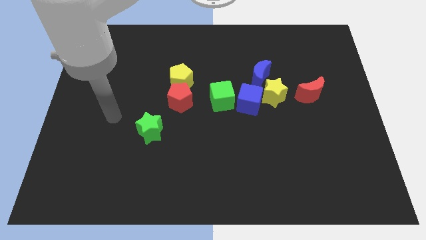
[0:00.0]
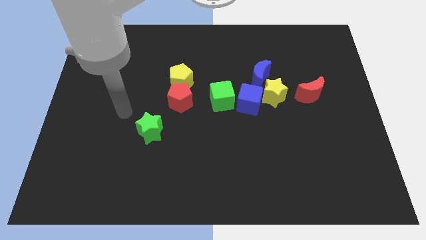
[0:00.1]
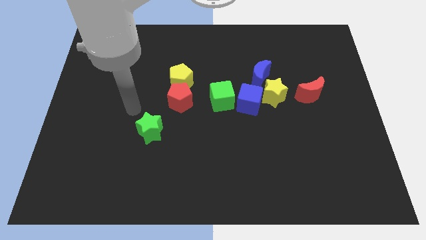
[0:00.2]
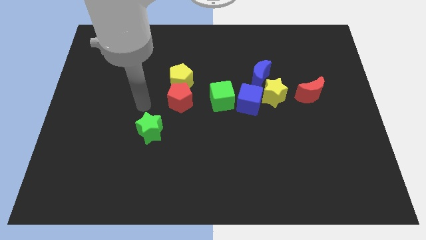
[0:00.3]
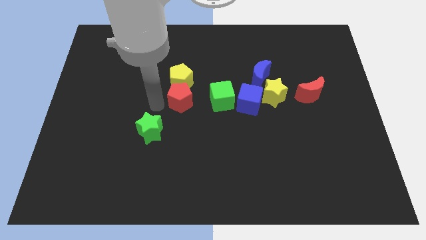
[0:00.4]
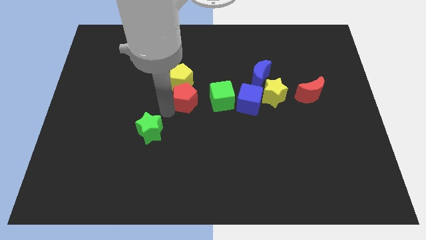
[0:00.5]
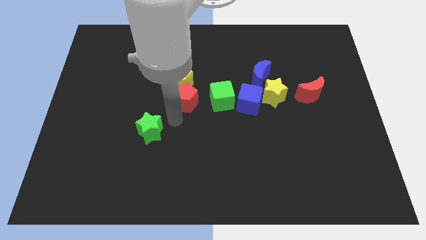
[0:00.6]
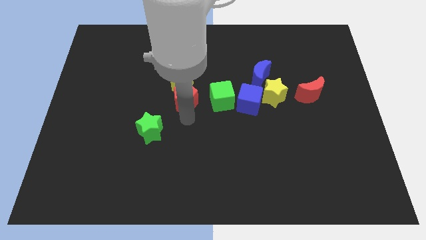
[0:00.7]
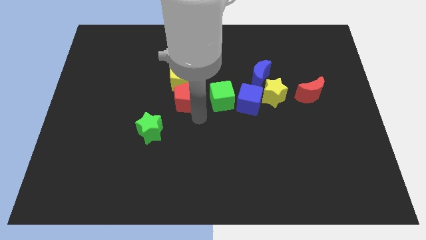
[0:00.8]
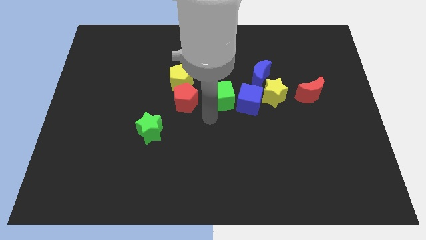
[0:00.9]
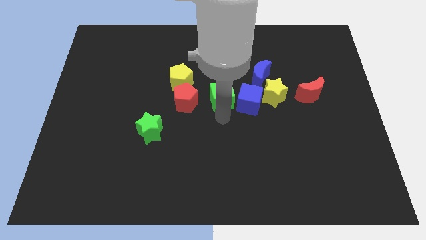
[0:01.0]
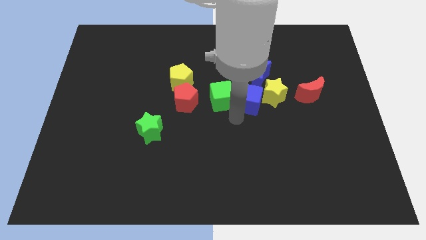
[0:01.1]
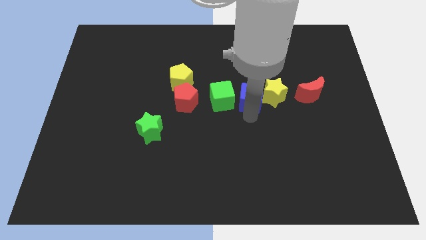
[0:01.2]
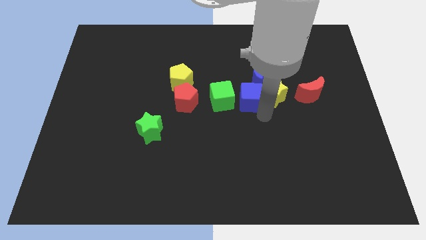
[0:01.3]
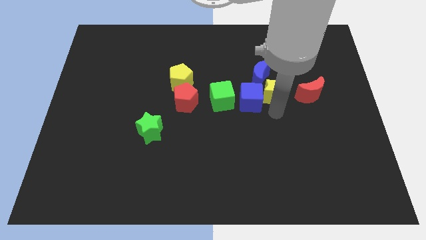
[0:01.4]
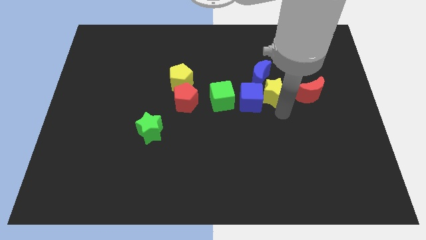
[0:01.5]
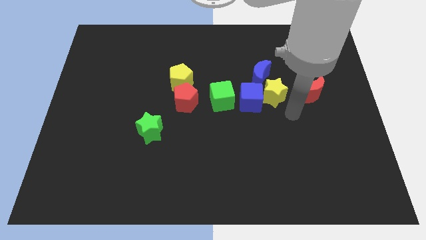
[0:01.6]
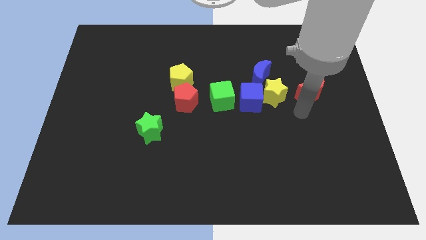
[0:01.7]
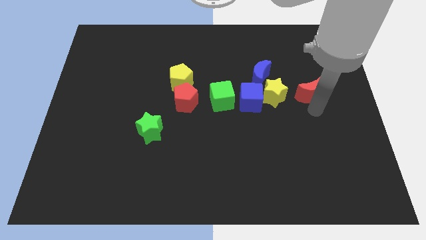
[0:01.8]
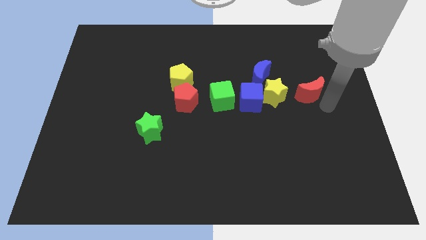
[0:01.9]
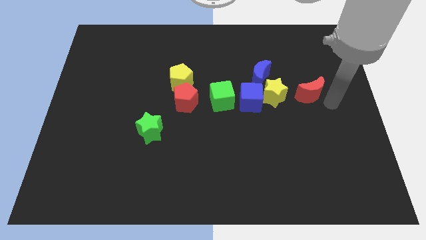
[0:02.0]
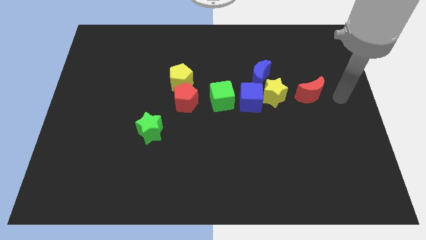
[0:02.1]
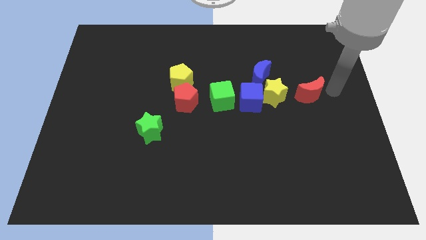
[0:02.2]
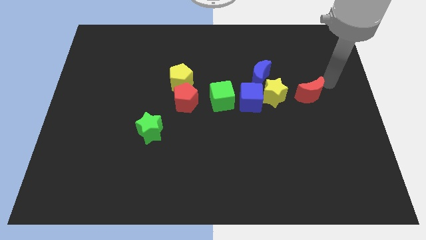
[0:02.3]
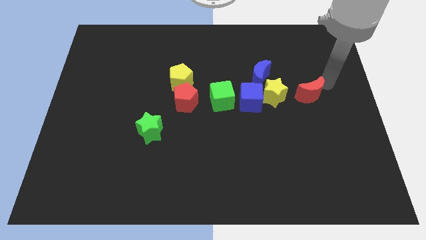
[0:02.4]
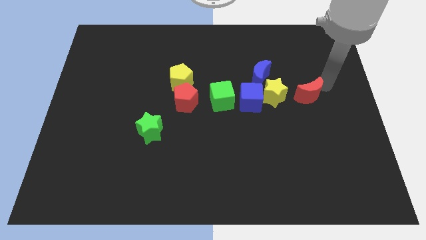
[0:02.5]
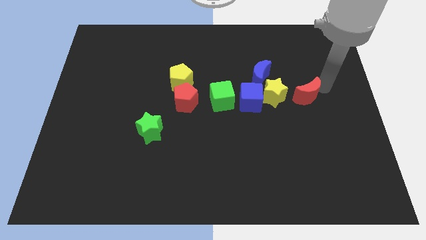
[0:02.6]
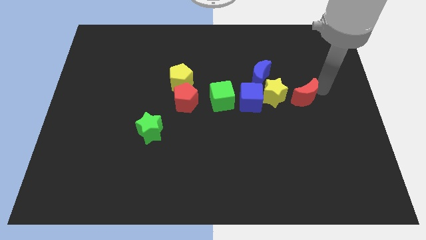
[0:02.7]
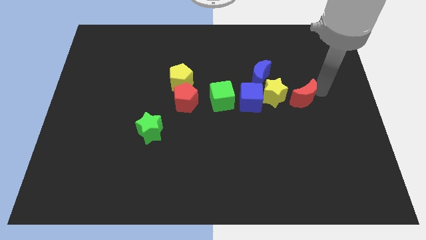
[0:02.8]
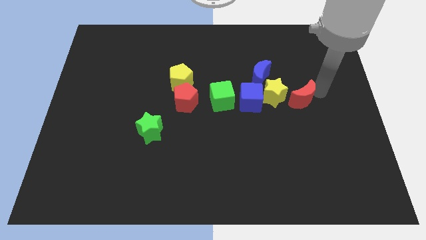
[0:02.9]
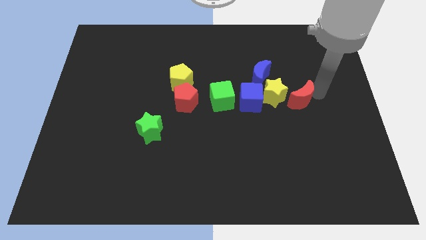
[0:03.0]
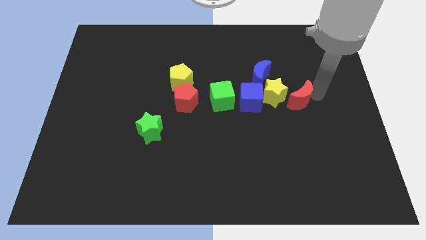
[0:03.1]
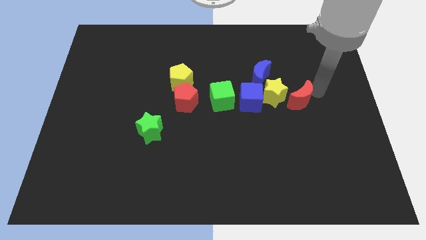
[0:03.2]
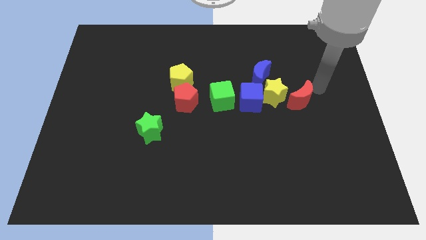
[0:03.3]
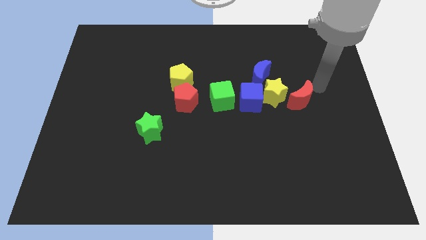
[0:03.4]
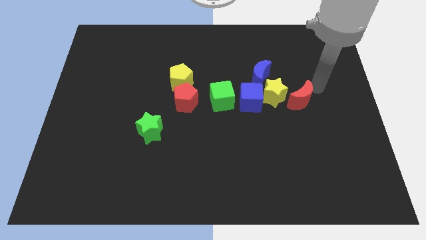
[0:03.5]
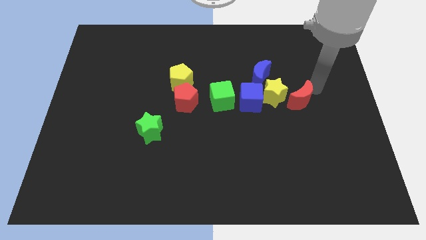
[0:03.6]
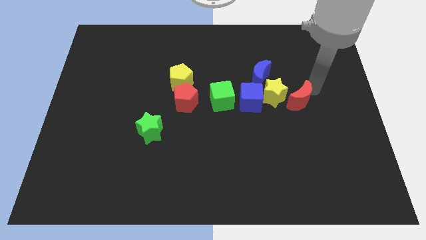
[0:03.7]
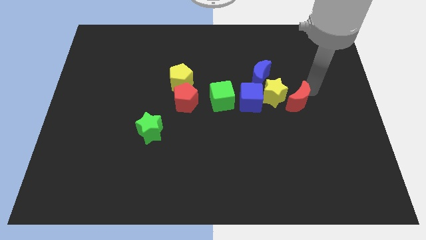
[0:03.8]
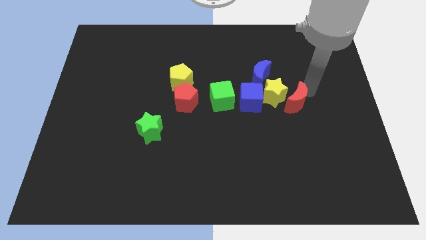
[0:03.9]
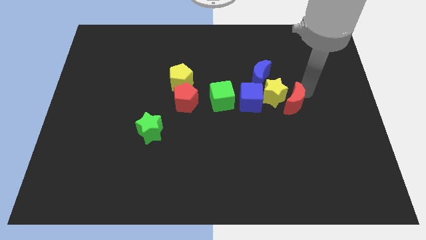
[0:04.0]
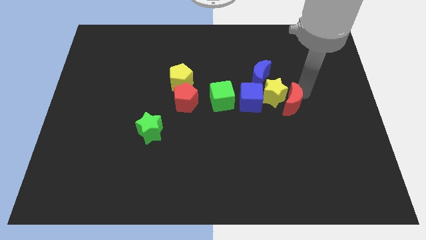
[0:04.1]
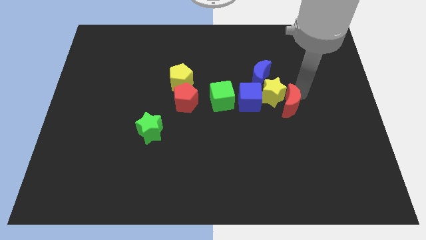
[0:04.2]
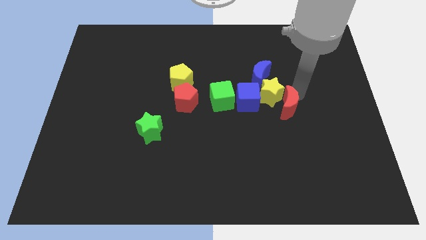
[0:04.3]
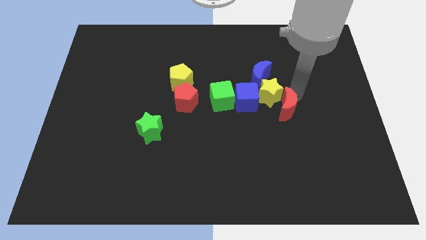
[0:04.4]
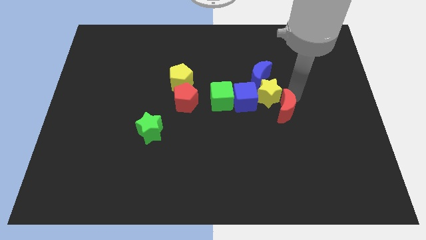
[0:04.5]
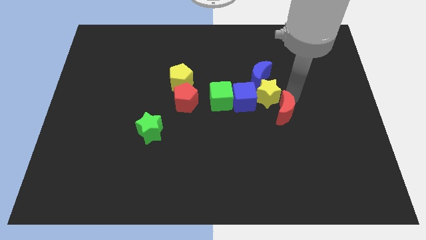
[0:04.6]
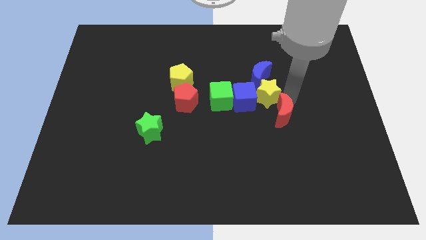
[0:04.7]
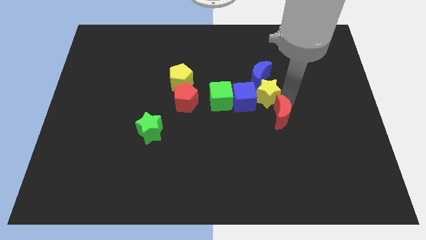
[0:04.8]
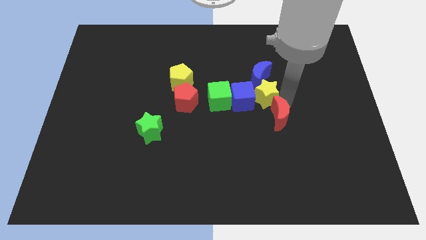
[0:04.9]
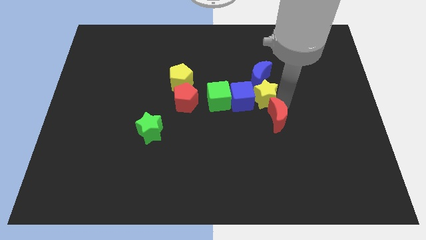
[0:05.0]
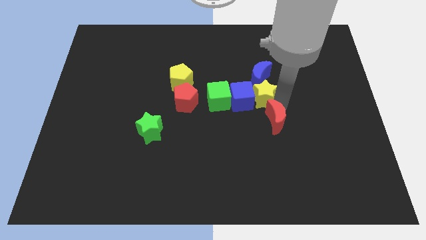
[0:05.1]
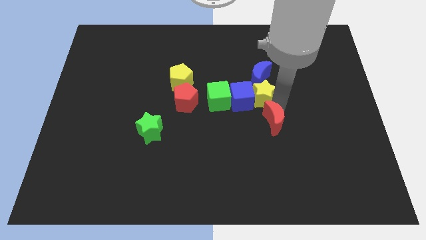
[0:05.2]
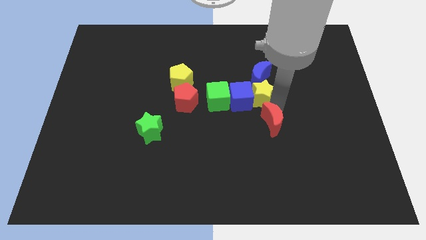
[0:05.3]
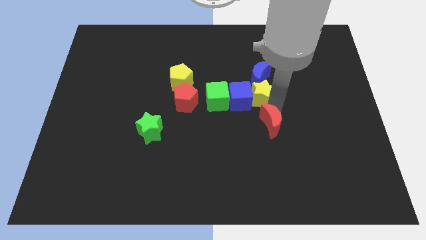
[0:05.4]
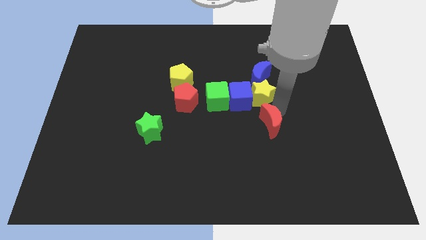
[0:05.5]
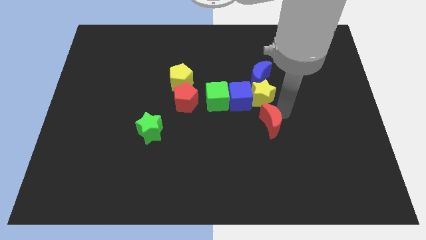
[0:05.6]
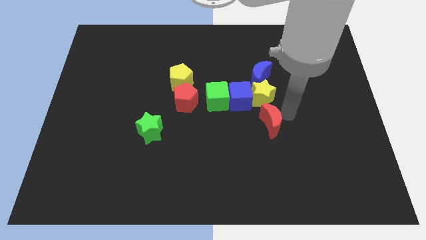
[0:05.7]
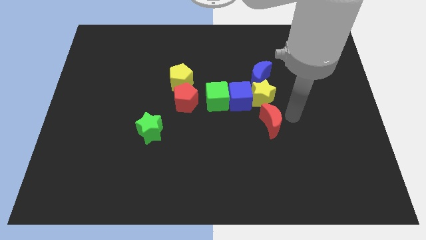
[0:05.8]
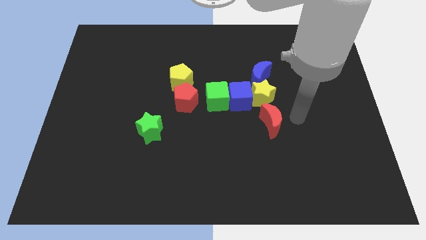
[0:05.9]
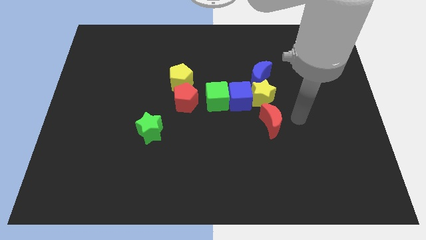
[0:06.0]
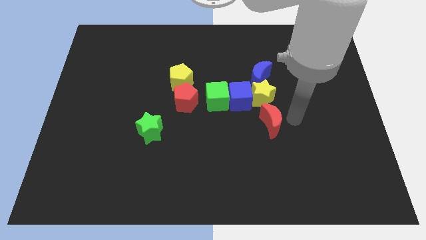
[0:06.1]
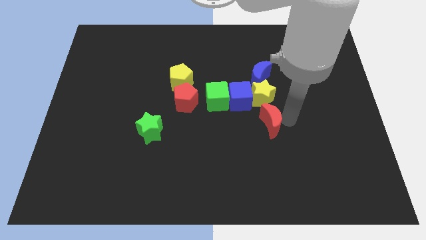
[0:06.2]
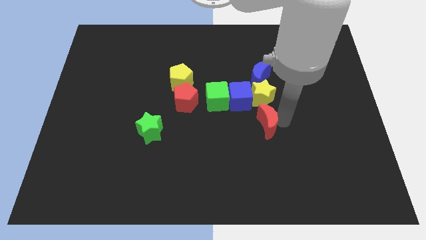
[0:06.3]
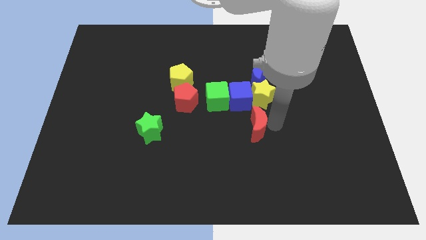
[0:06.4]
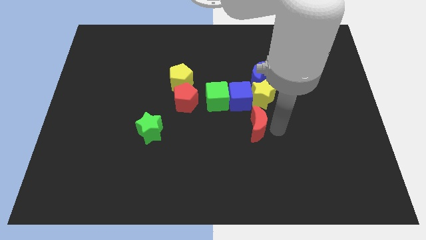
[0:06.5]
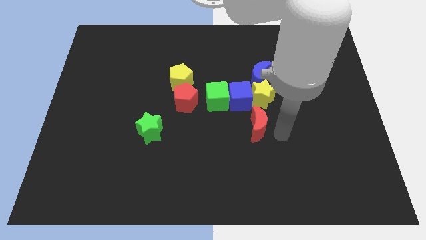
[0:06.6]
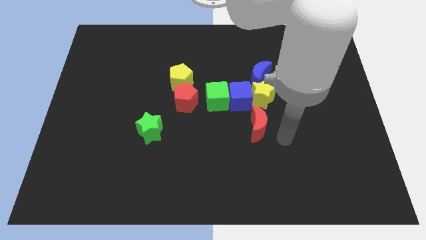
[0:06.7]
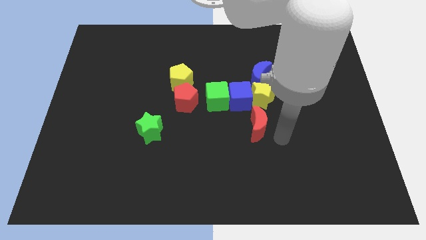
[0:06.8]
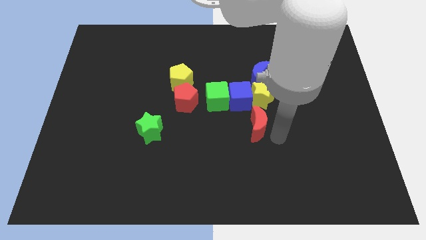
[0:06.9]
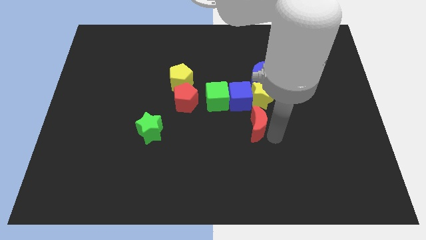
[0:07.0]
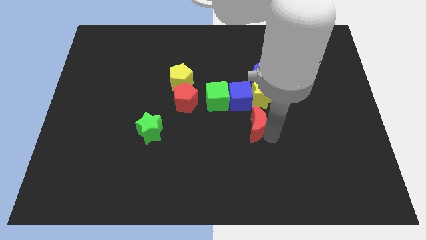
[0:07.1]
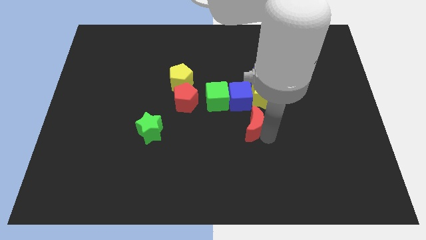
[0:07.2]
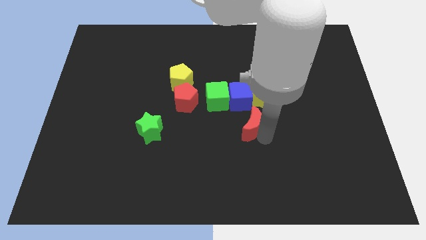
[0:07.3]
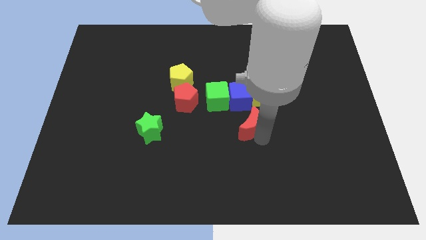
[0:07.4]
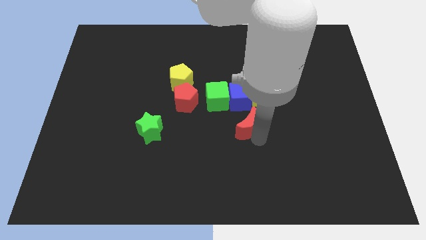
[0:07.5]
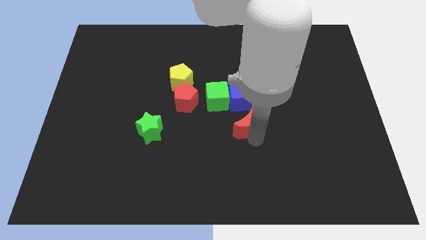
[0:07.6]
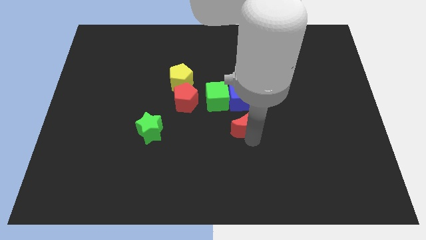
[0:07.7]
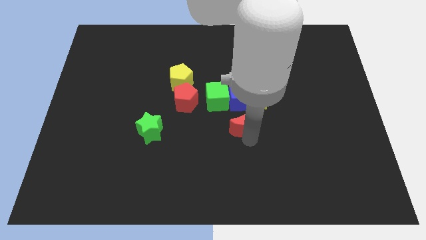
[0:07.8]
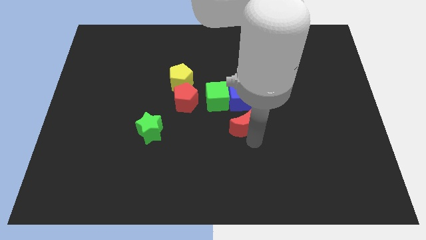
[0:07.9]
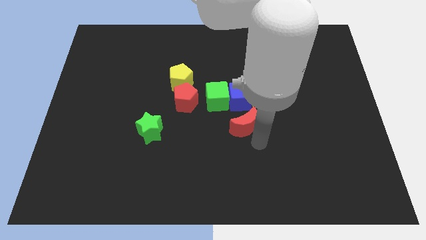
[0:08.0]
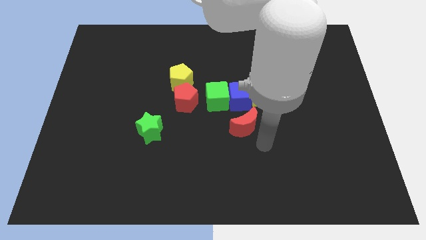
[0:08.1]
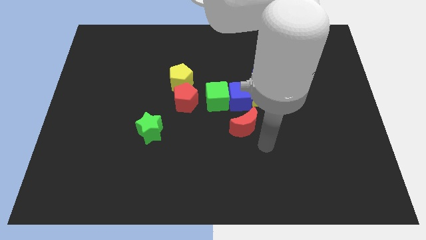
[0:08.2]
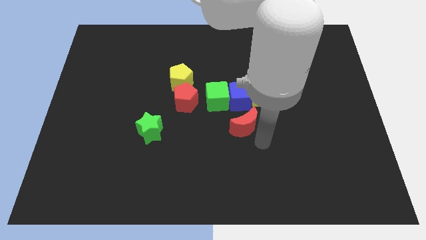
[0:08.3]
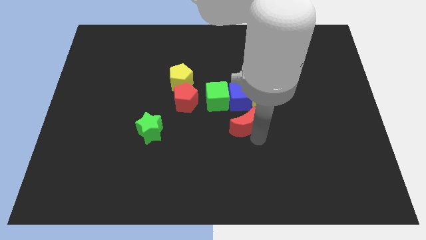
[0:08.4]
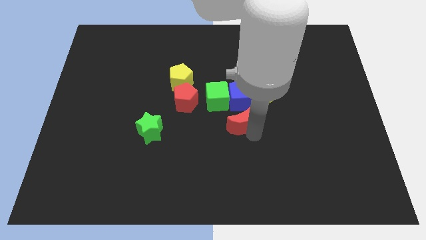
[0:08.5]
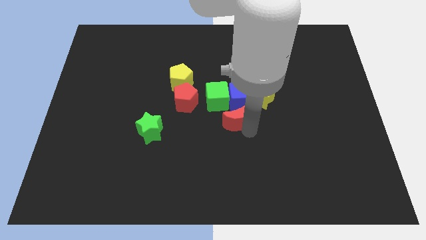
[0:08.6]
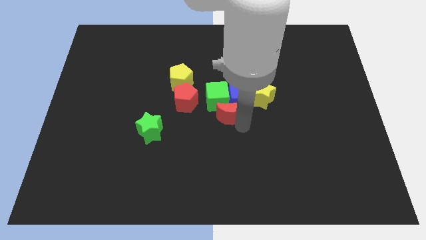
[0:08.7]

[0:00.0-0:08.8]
slide the red moon towards the green cube
